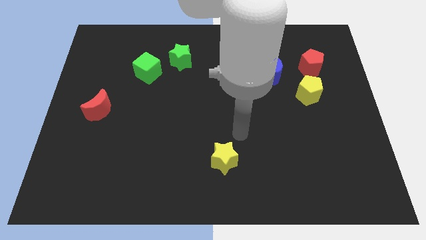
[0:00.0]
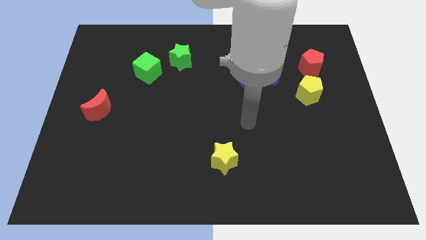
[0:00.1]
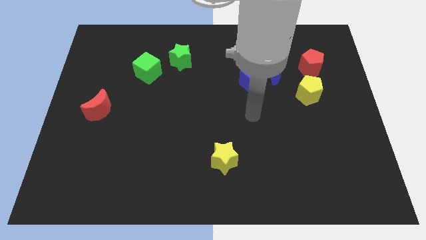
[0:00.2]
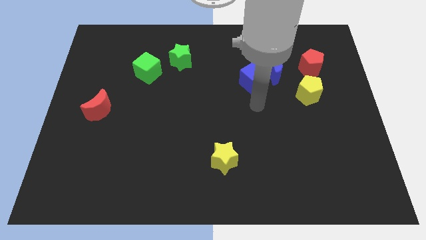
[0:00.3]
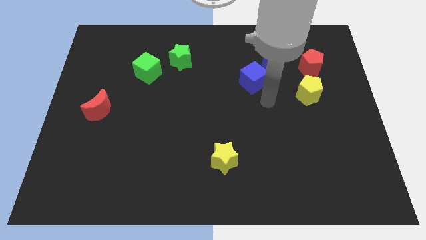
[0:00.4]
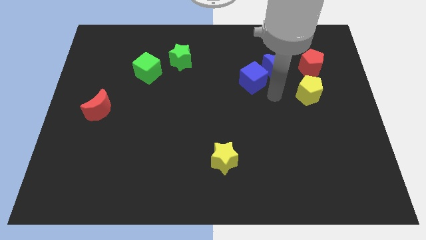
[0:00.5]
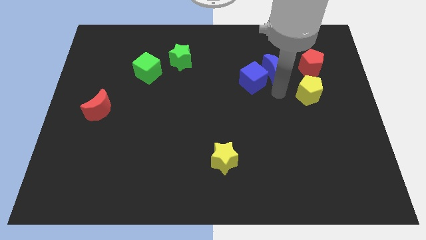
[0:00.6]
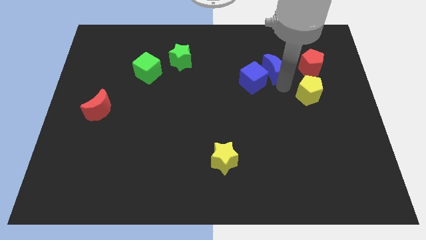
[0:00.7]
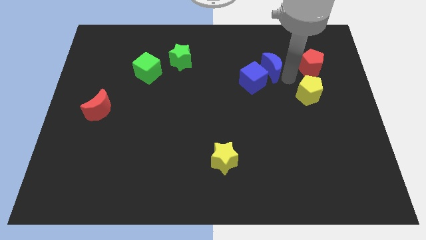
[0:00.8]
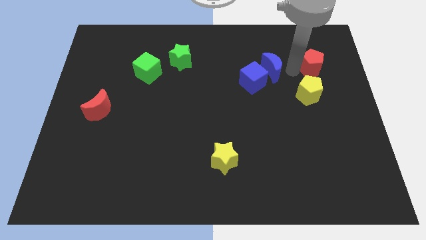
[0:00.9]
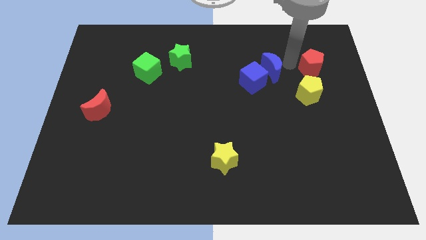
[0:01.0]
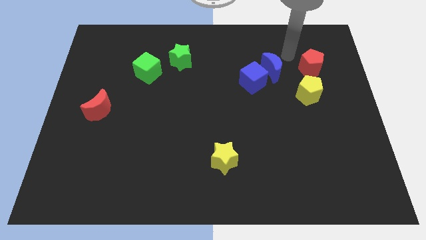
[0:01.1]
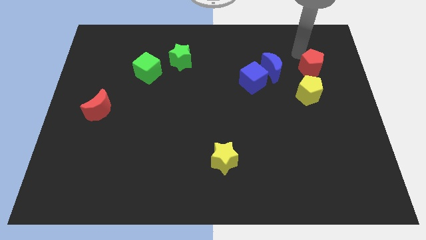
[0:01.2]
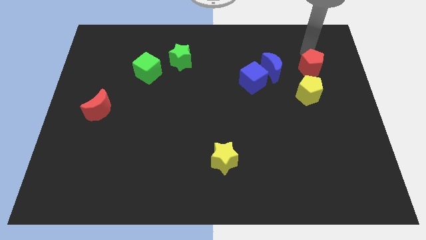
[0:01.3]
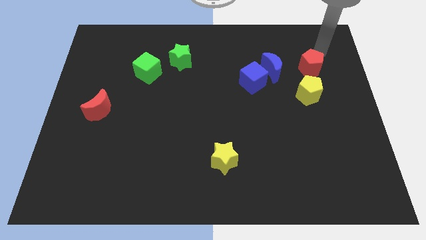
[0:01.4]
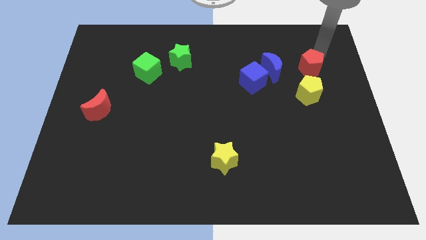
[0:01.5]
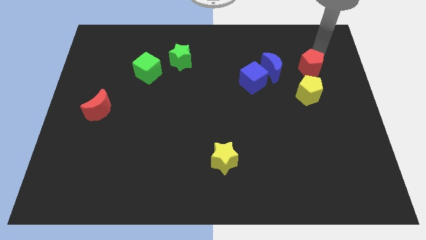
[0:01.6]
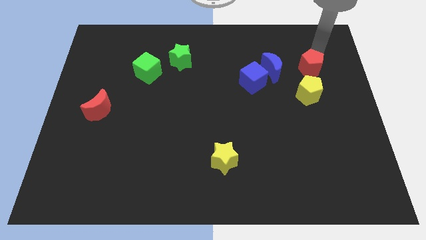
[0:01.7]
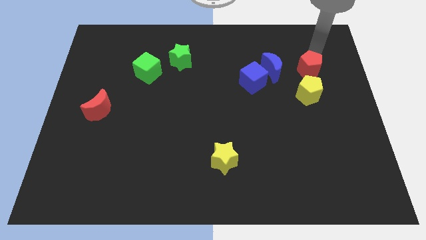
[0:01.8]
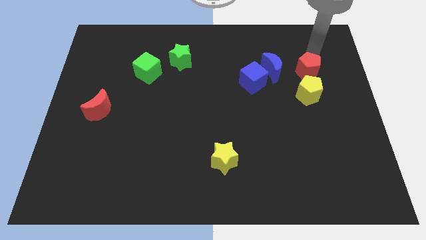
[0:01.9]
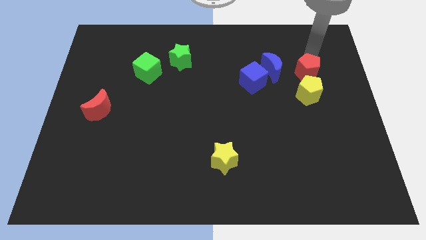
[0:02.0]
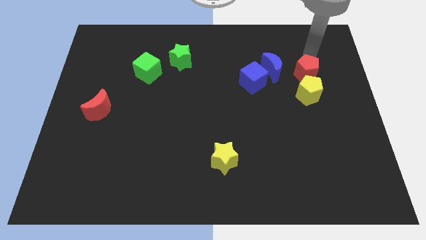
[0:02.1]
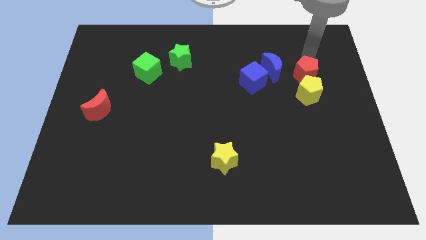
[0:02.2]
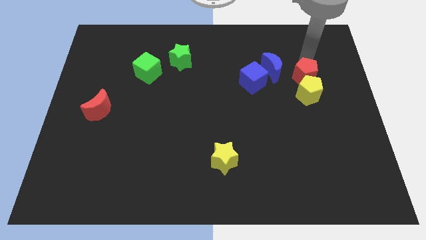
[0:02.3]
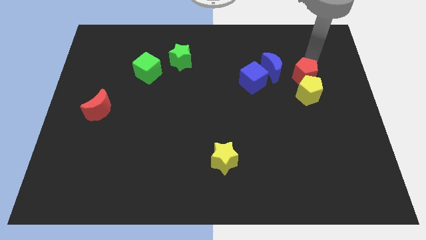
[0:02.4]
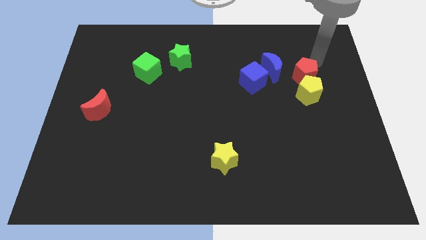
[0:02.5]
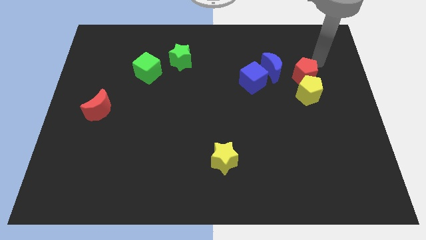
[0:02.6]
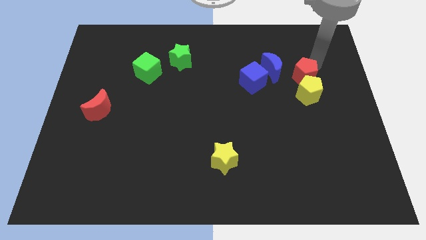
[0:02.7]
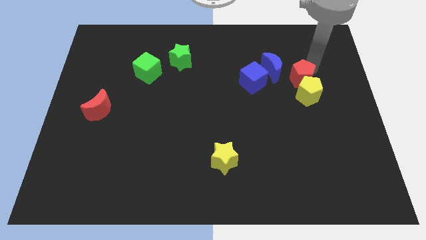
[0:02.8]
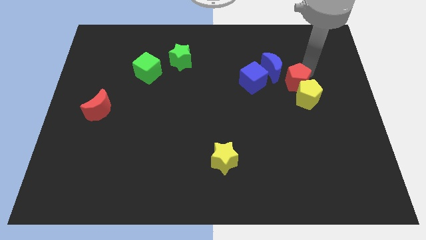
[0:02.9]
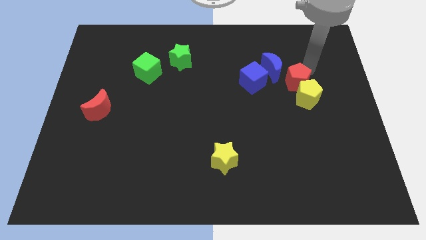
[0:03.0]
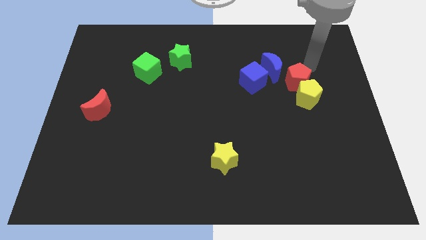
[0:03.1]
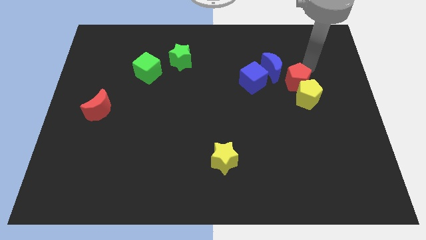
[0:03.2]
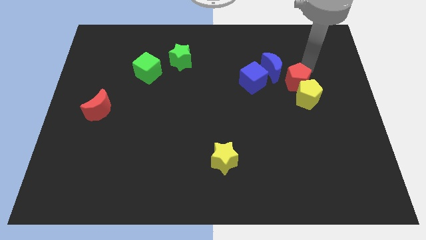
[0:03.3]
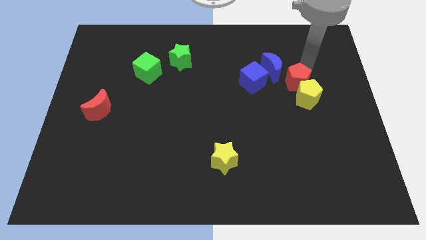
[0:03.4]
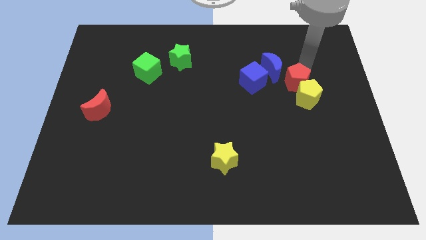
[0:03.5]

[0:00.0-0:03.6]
move the red pentagon diagonally downwards and to the left a little bit

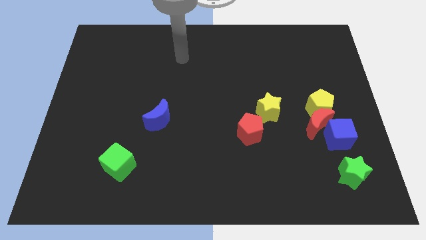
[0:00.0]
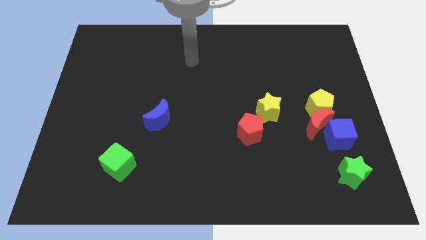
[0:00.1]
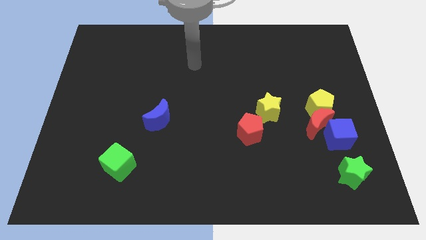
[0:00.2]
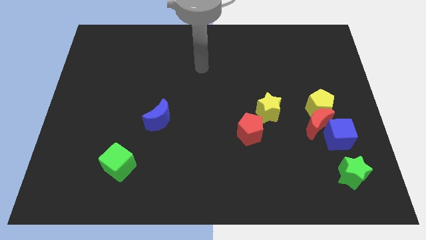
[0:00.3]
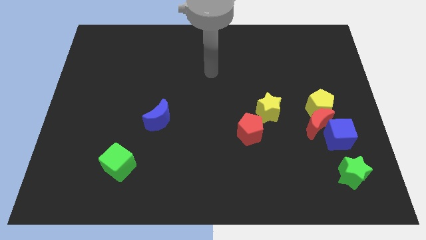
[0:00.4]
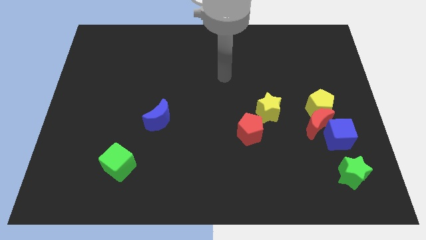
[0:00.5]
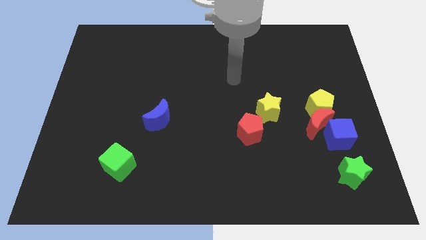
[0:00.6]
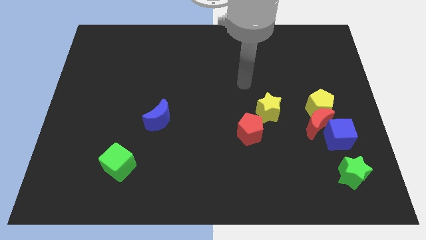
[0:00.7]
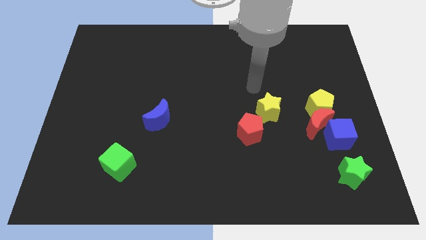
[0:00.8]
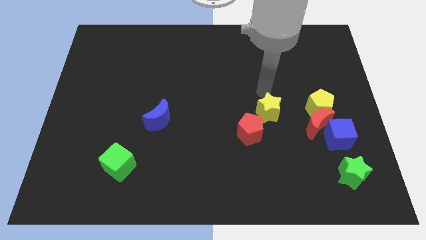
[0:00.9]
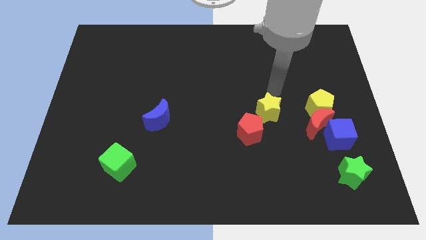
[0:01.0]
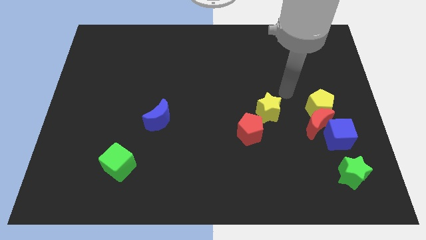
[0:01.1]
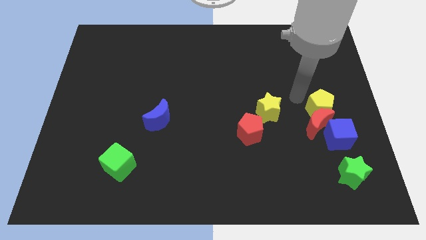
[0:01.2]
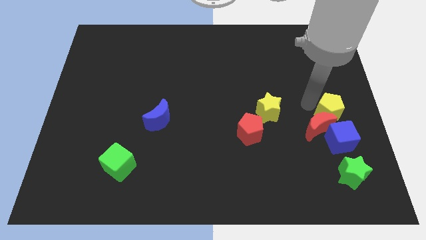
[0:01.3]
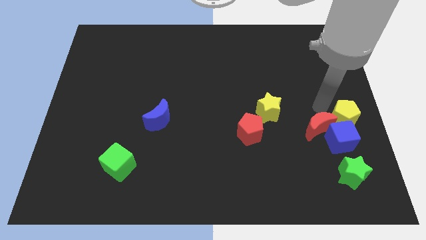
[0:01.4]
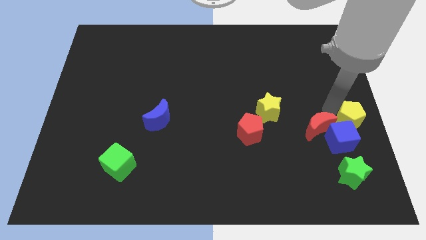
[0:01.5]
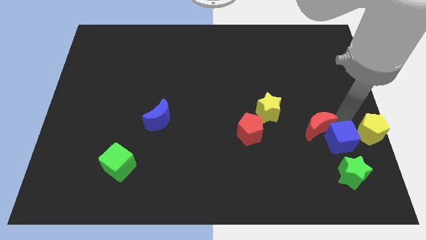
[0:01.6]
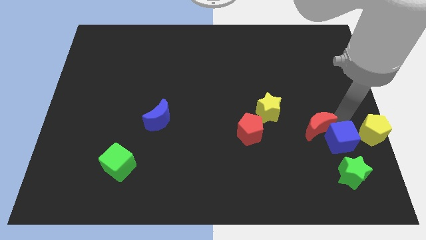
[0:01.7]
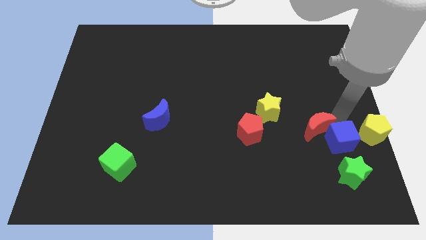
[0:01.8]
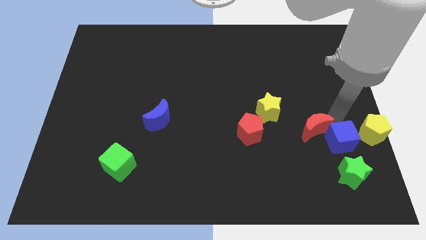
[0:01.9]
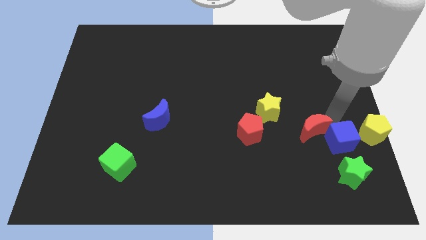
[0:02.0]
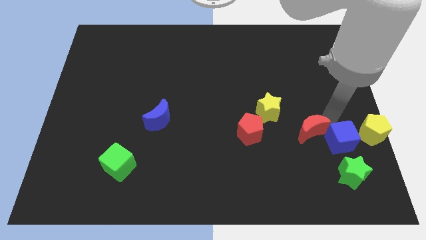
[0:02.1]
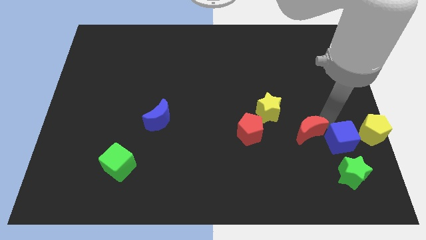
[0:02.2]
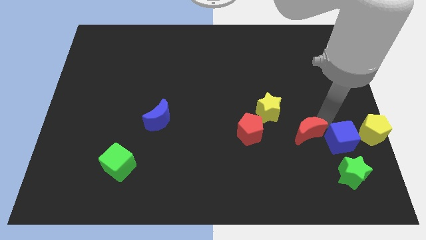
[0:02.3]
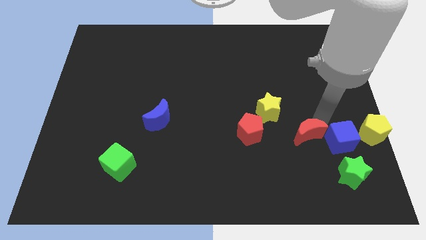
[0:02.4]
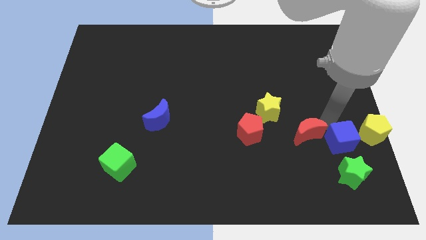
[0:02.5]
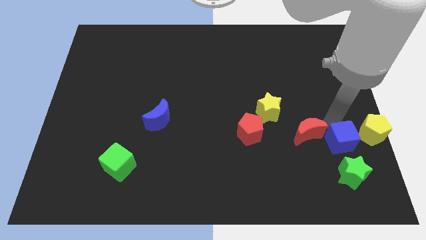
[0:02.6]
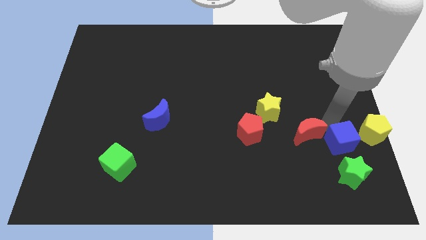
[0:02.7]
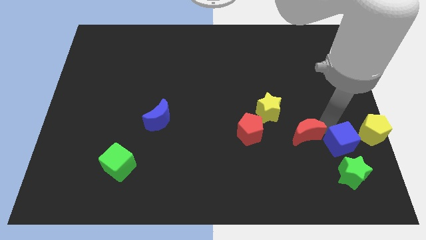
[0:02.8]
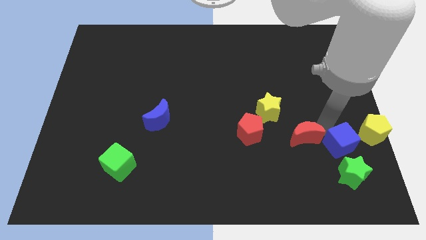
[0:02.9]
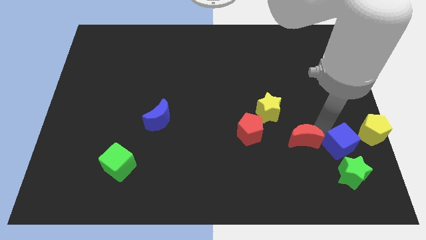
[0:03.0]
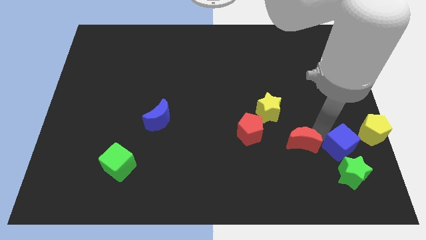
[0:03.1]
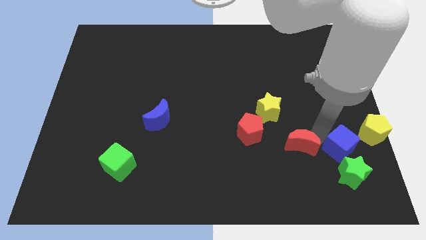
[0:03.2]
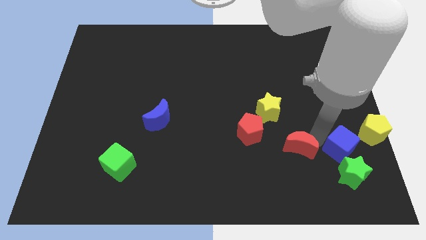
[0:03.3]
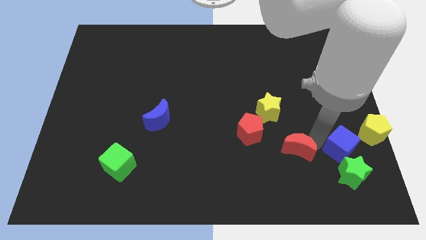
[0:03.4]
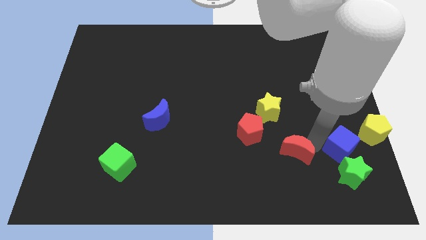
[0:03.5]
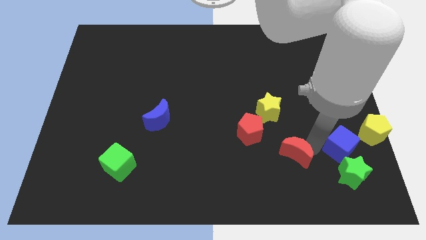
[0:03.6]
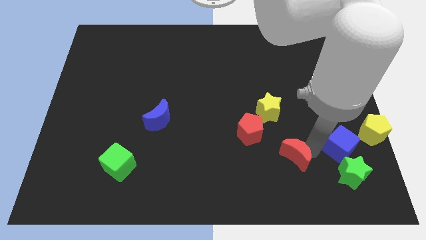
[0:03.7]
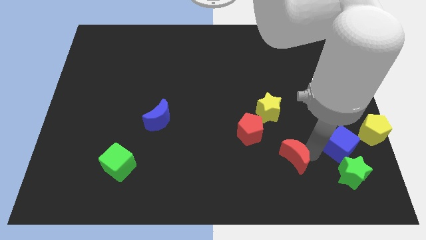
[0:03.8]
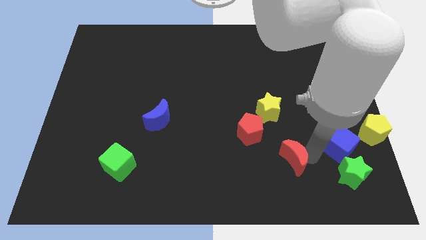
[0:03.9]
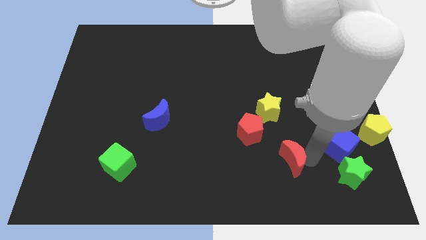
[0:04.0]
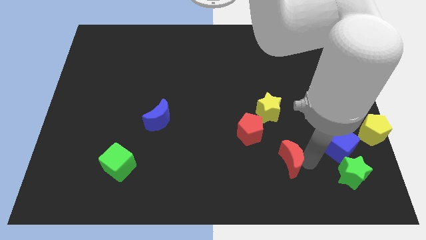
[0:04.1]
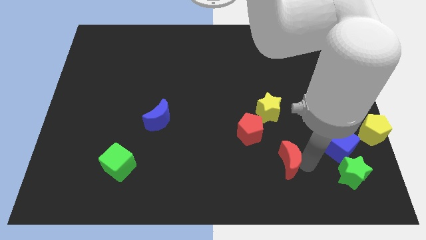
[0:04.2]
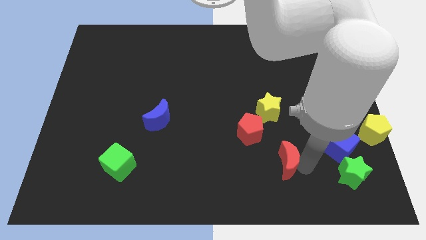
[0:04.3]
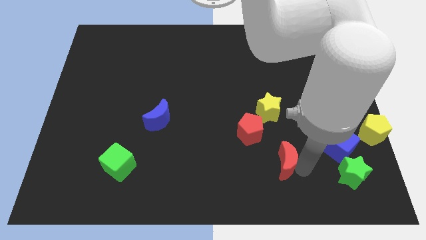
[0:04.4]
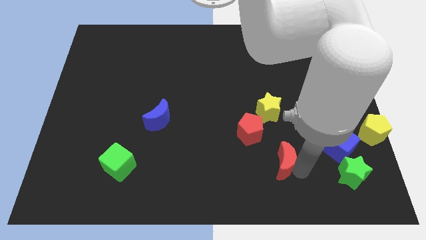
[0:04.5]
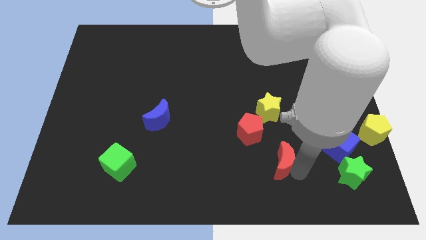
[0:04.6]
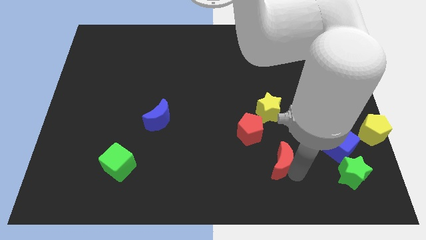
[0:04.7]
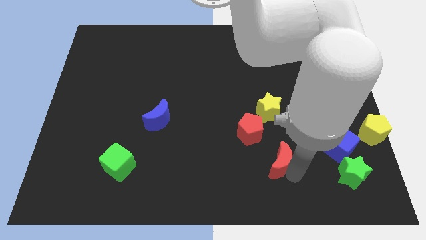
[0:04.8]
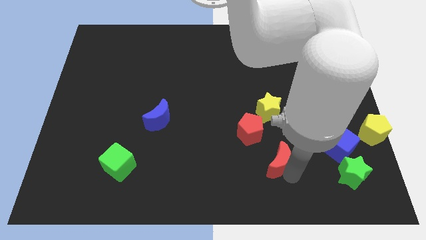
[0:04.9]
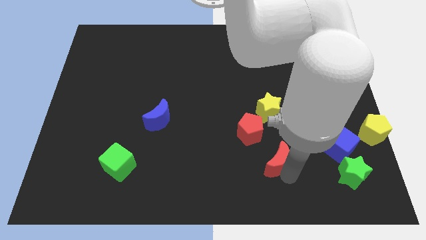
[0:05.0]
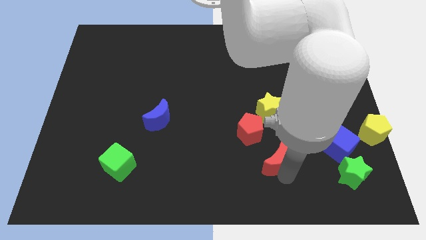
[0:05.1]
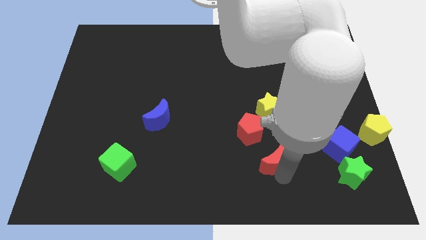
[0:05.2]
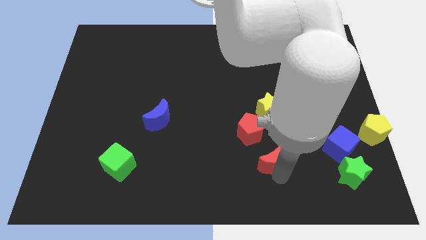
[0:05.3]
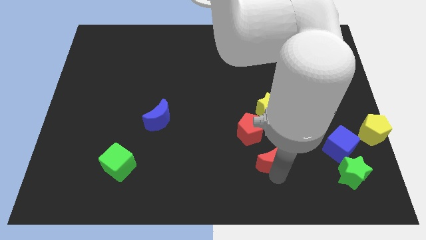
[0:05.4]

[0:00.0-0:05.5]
slightly move the red moon to the left
